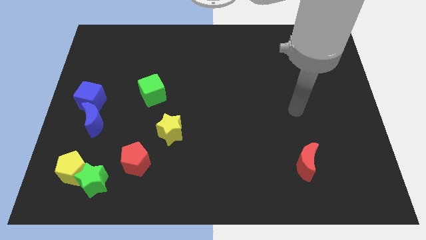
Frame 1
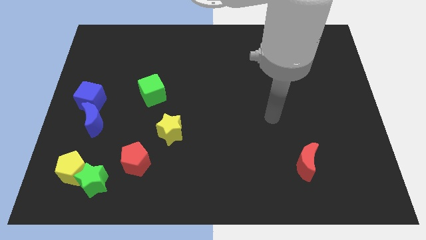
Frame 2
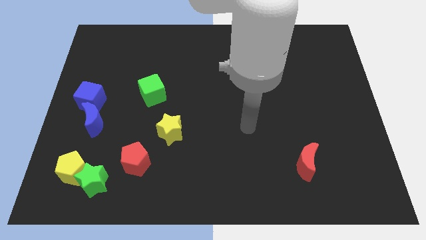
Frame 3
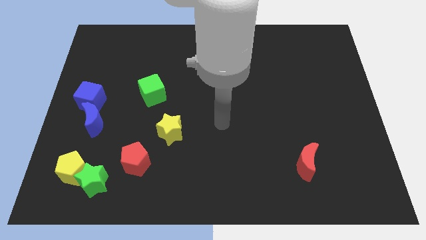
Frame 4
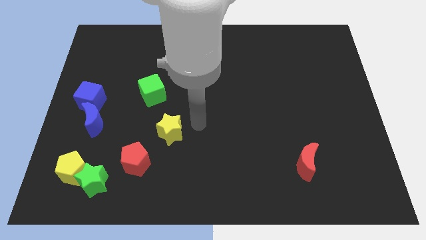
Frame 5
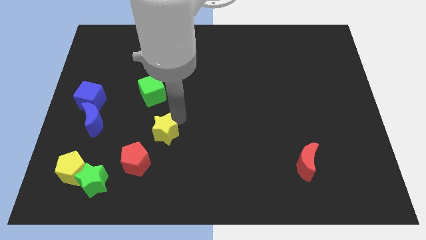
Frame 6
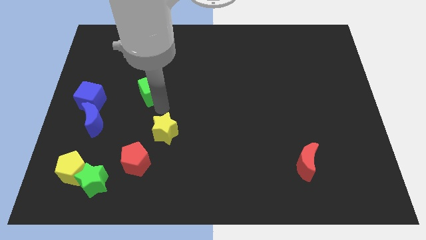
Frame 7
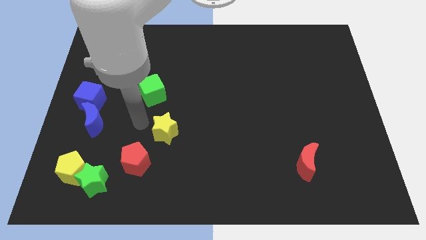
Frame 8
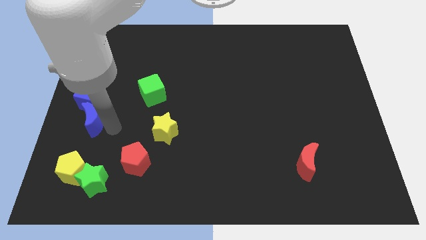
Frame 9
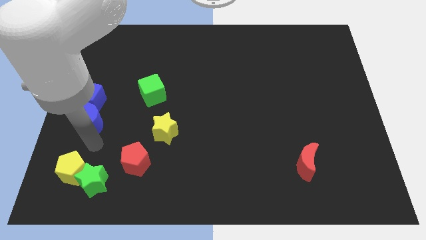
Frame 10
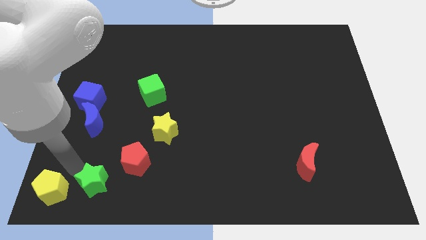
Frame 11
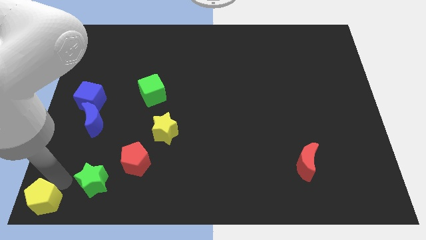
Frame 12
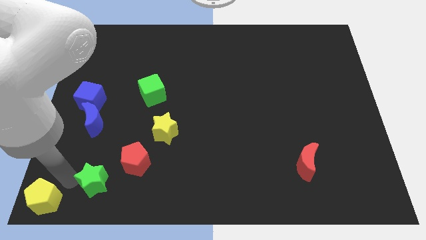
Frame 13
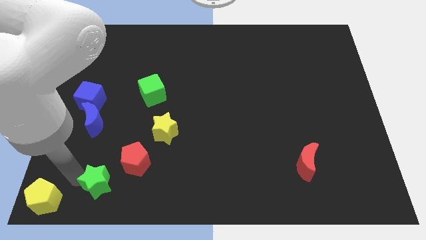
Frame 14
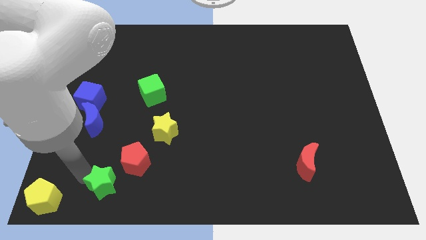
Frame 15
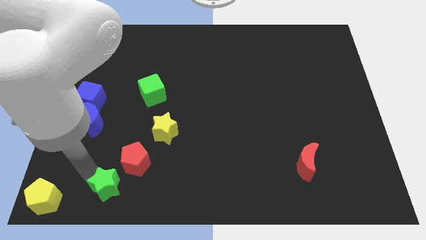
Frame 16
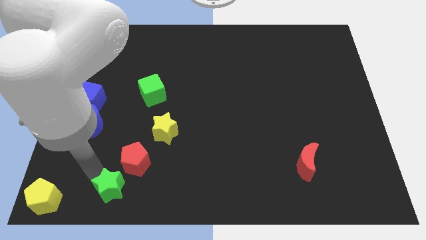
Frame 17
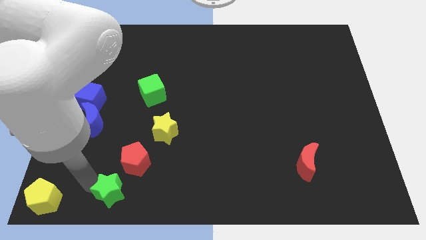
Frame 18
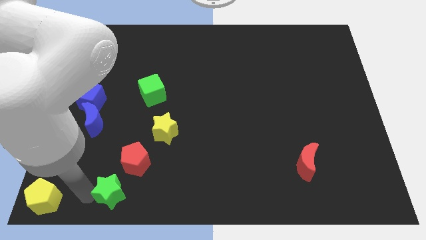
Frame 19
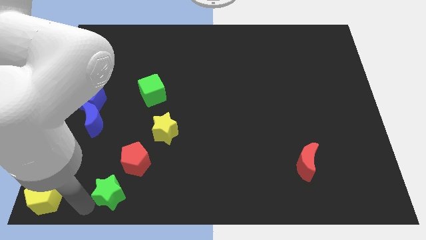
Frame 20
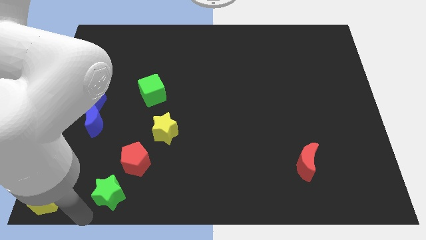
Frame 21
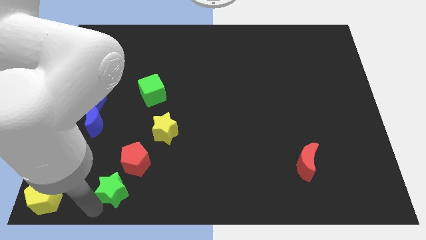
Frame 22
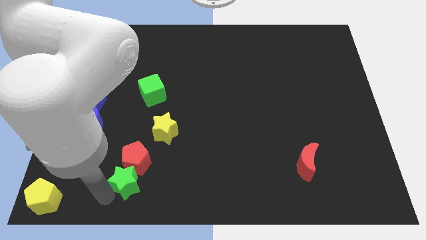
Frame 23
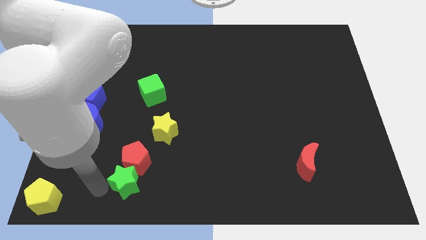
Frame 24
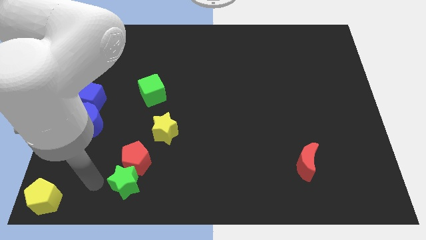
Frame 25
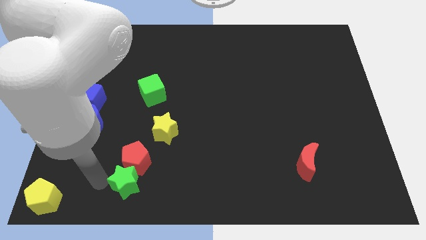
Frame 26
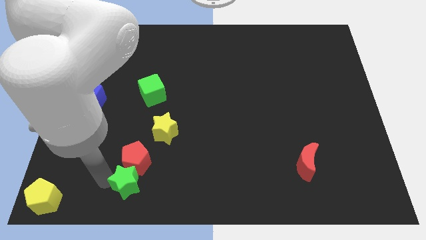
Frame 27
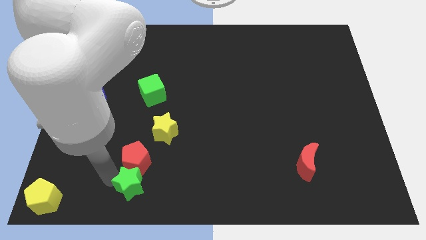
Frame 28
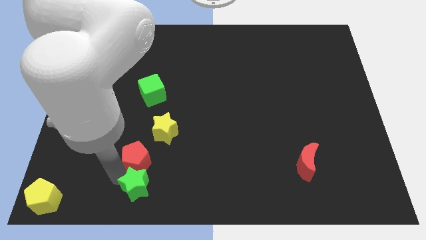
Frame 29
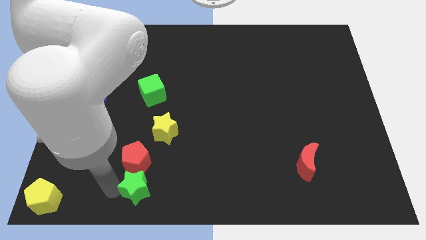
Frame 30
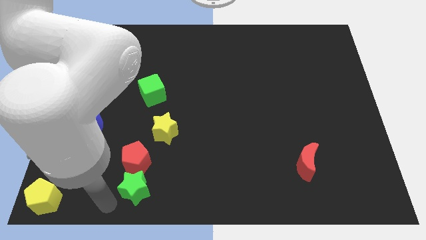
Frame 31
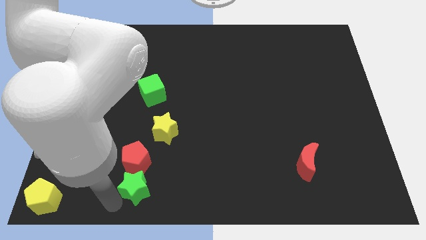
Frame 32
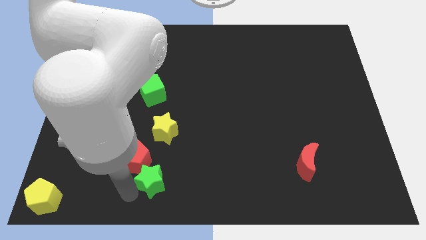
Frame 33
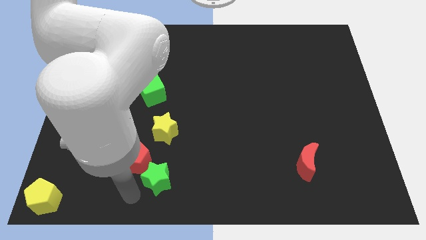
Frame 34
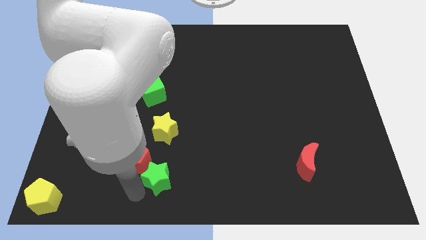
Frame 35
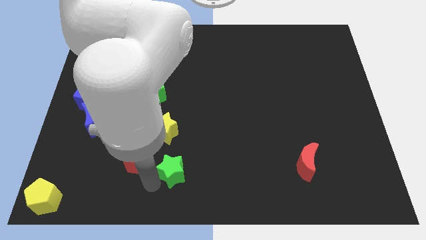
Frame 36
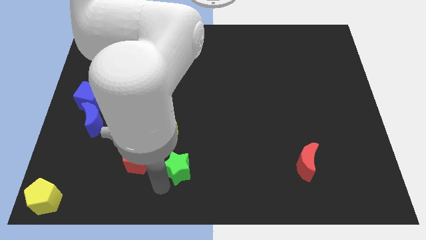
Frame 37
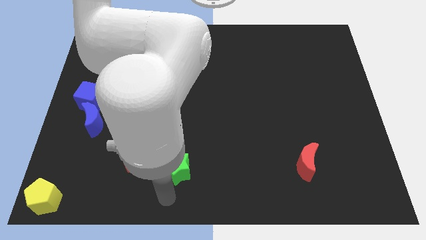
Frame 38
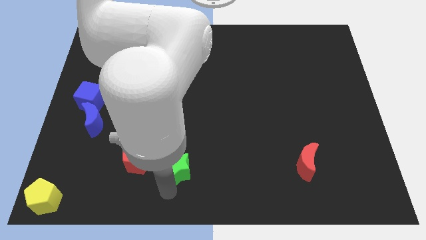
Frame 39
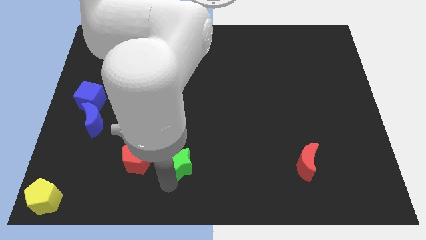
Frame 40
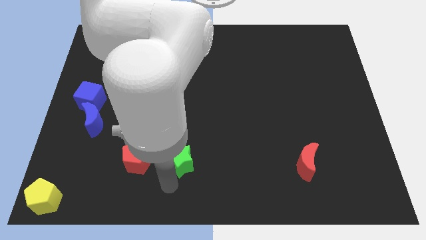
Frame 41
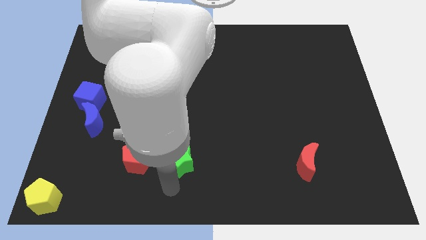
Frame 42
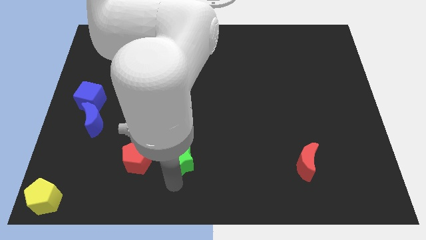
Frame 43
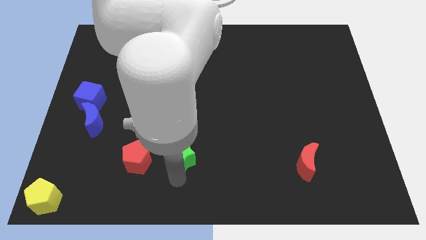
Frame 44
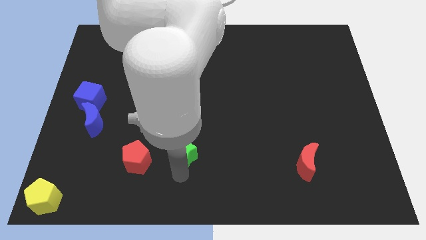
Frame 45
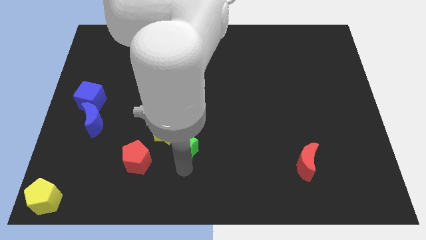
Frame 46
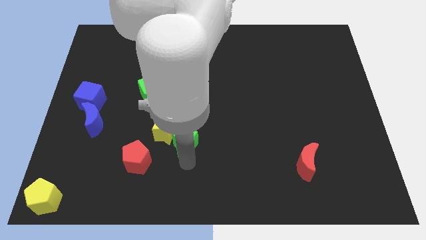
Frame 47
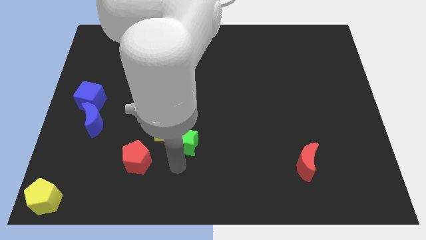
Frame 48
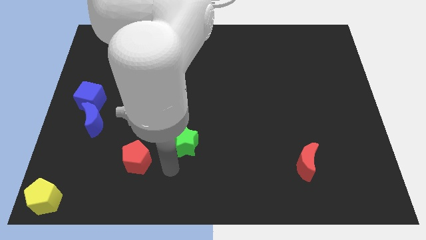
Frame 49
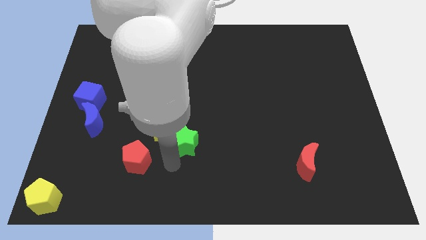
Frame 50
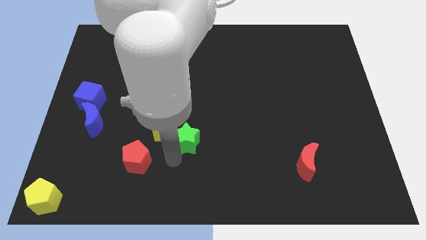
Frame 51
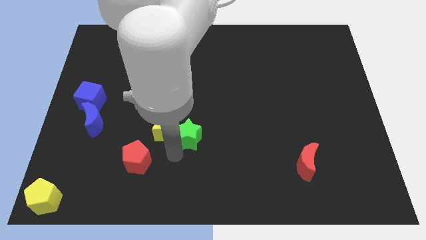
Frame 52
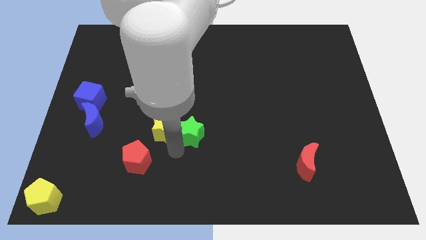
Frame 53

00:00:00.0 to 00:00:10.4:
slide the green star diagonally up and right

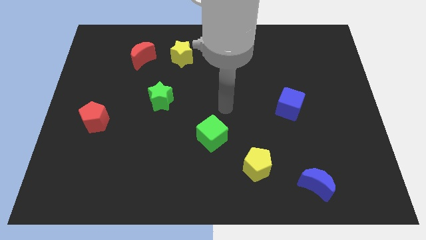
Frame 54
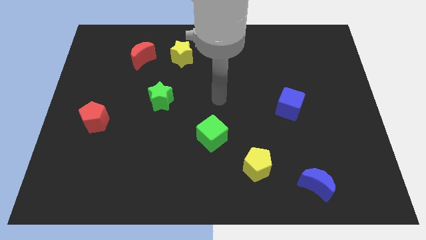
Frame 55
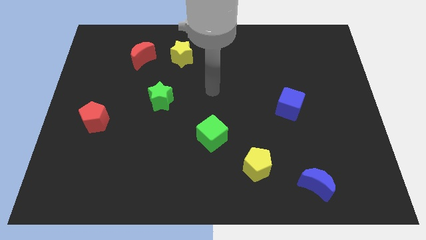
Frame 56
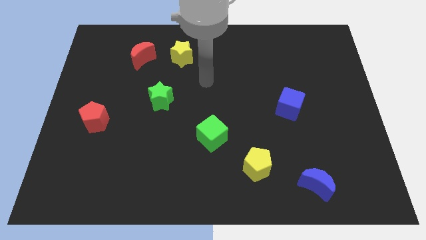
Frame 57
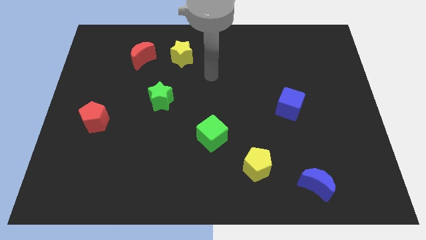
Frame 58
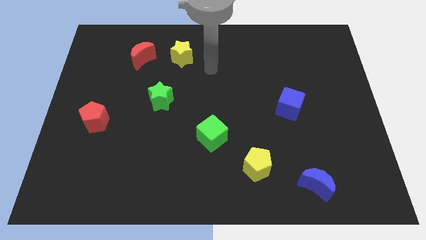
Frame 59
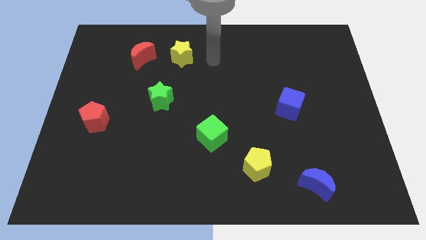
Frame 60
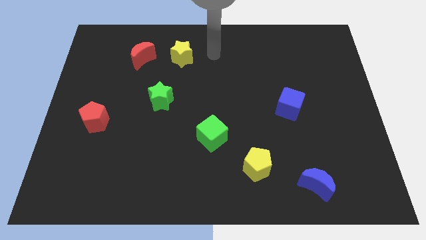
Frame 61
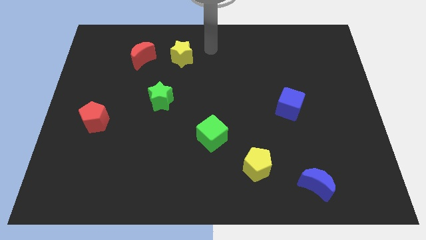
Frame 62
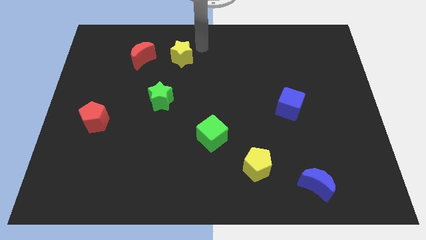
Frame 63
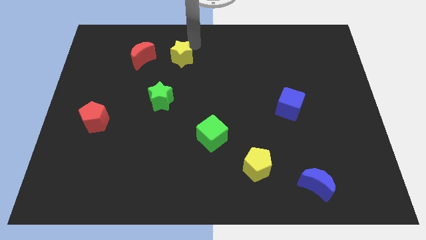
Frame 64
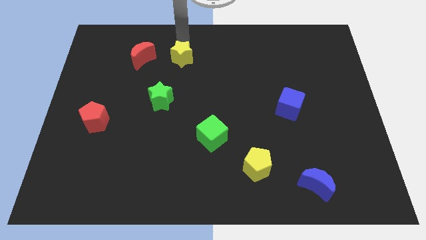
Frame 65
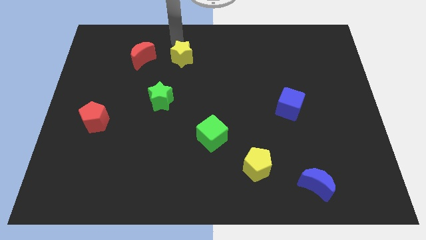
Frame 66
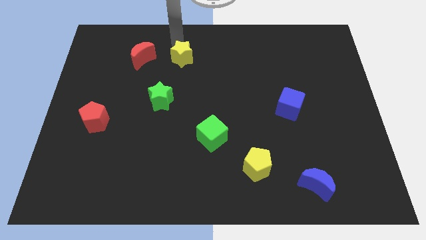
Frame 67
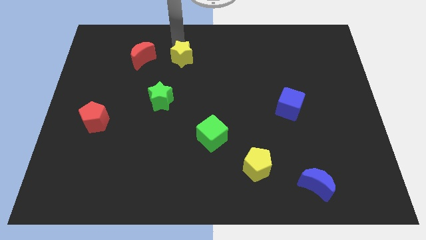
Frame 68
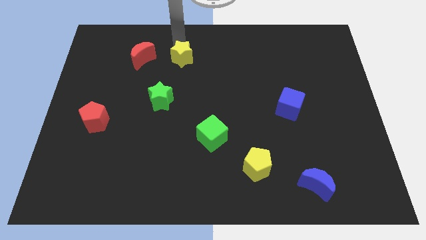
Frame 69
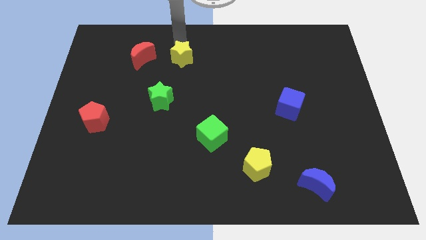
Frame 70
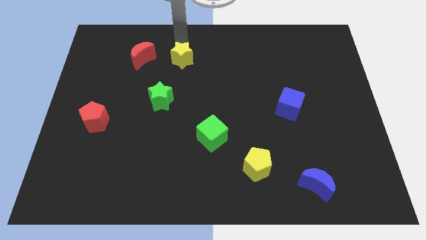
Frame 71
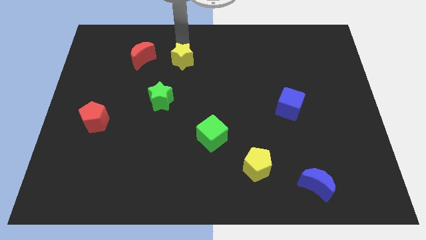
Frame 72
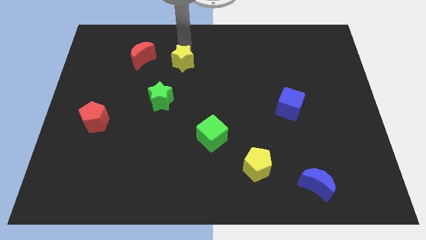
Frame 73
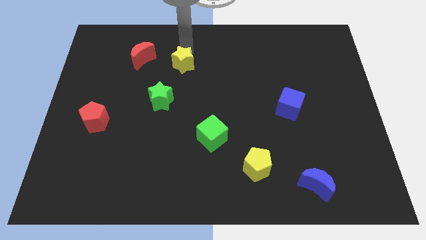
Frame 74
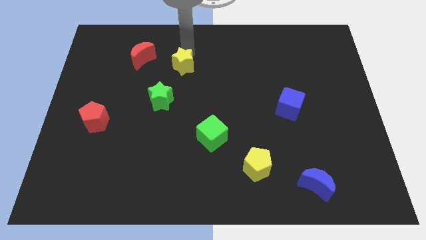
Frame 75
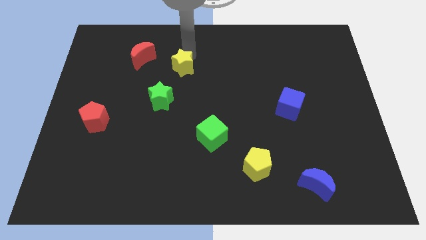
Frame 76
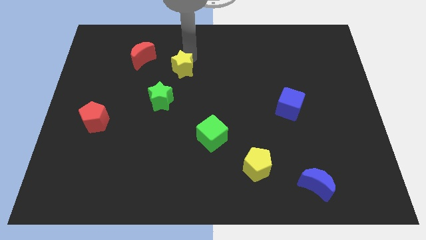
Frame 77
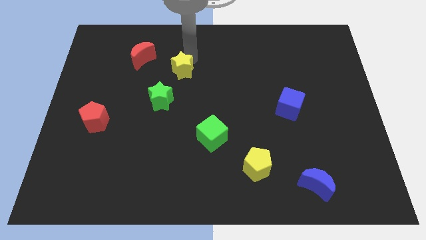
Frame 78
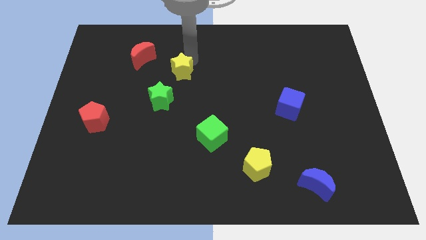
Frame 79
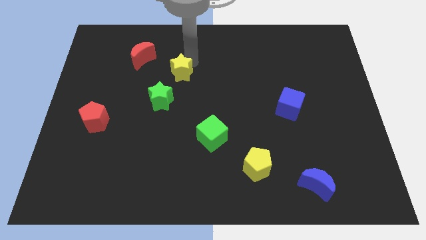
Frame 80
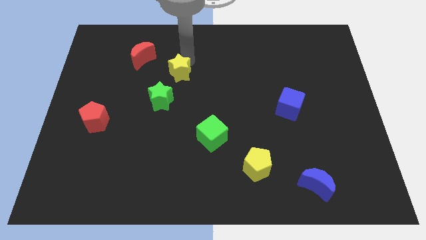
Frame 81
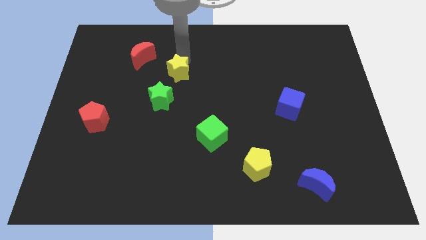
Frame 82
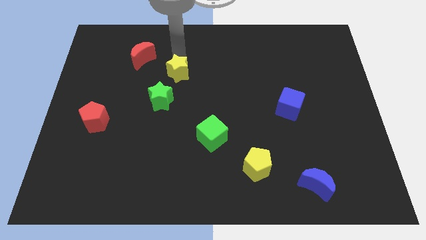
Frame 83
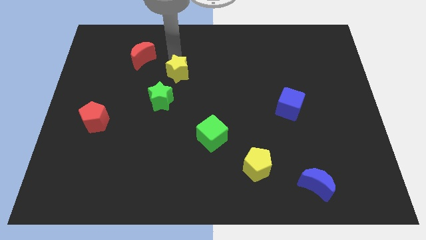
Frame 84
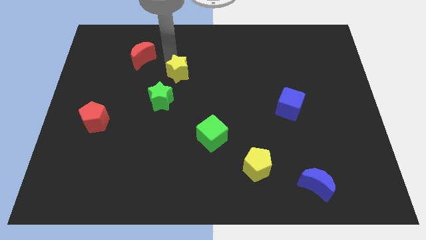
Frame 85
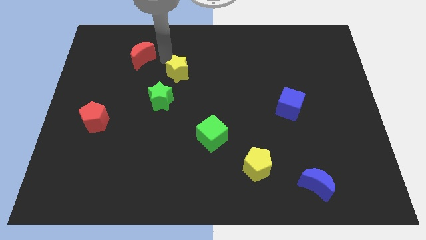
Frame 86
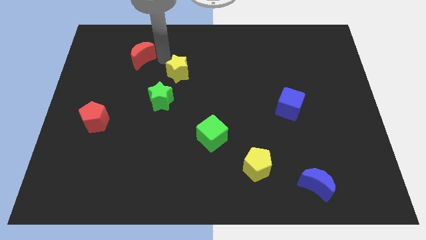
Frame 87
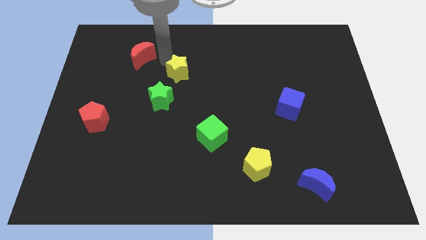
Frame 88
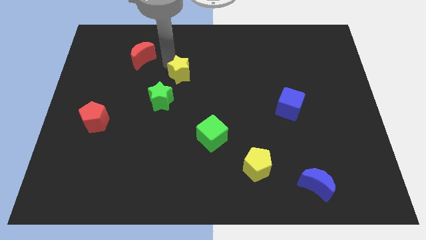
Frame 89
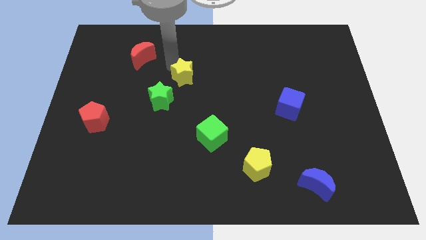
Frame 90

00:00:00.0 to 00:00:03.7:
push the yellow star downwards a little bit
